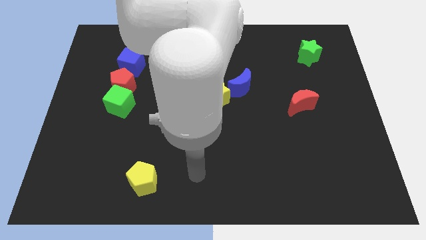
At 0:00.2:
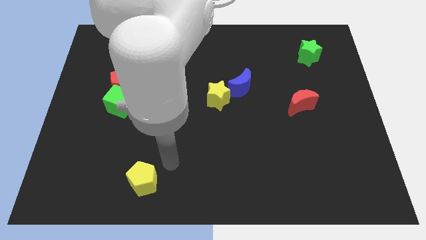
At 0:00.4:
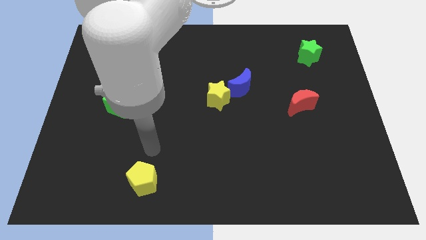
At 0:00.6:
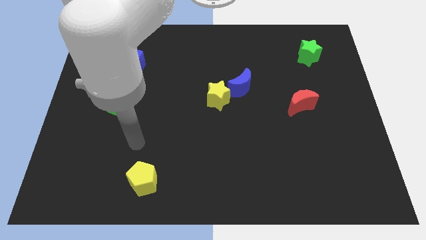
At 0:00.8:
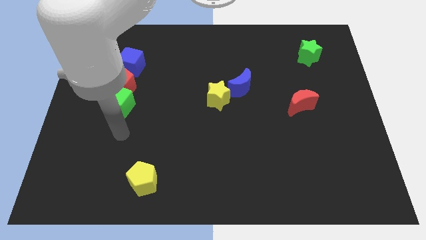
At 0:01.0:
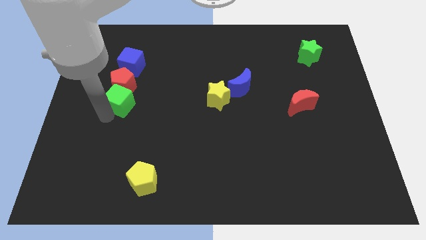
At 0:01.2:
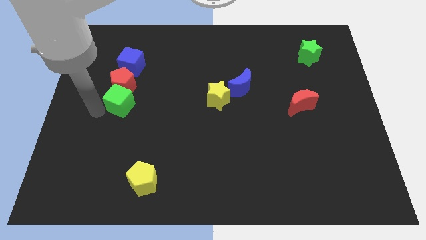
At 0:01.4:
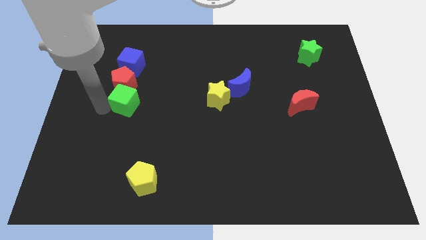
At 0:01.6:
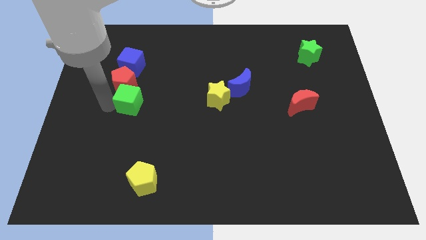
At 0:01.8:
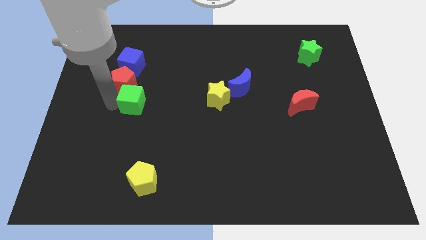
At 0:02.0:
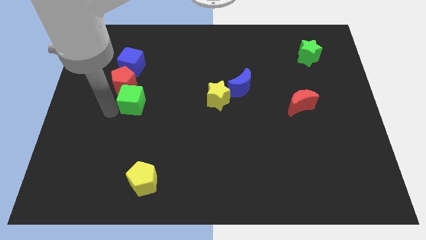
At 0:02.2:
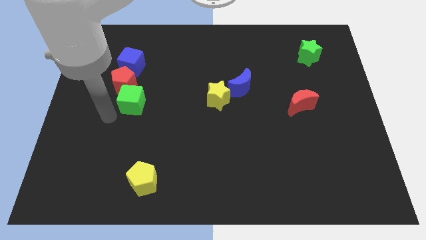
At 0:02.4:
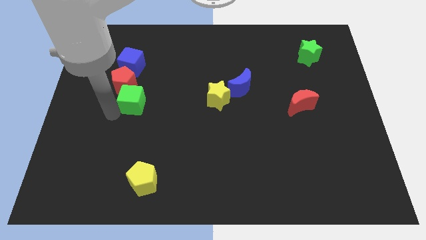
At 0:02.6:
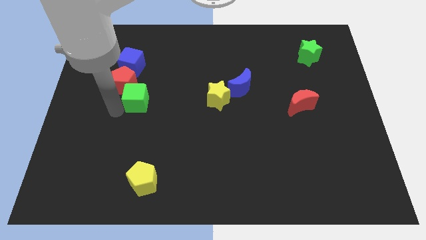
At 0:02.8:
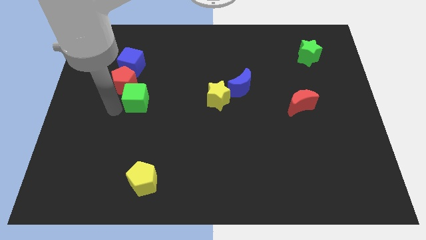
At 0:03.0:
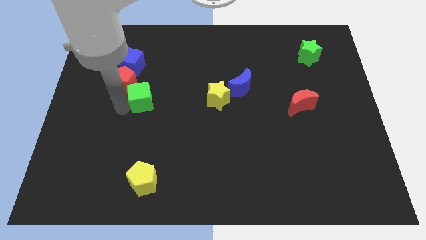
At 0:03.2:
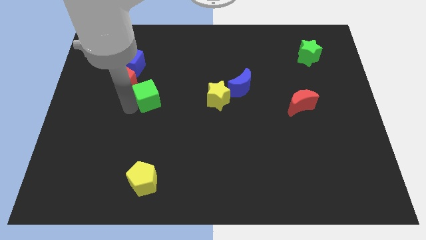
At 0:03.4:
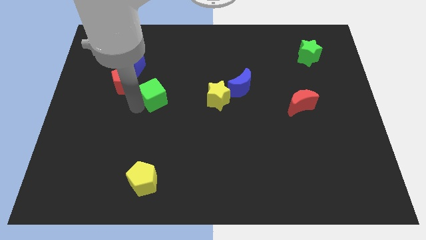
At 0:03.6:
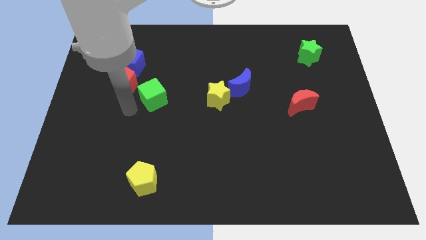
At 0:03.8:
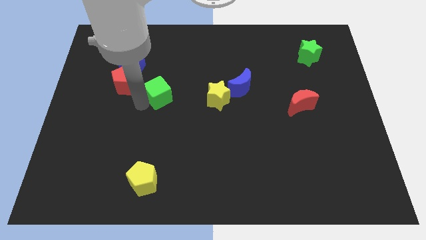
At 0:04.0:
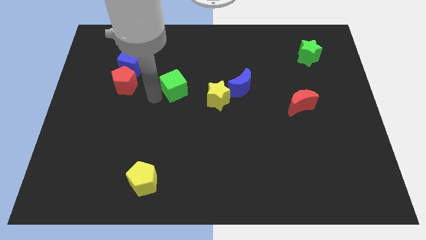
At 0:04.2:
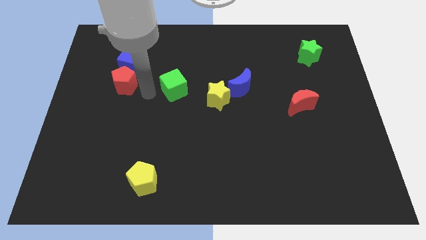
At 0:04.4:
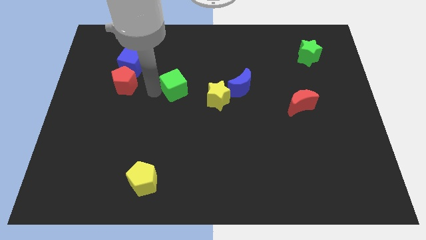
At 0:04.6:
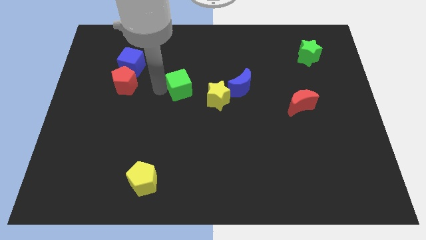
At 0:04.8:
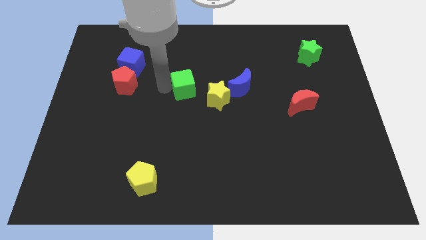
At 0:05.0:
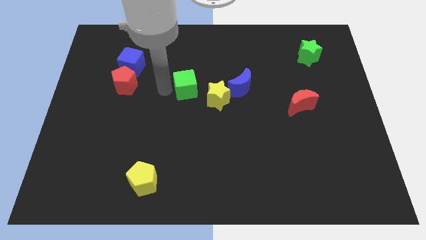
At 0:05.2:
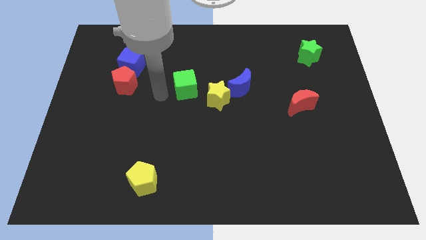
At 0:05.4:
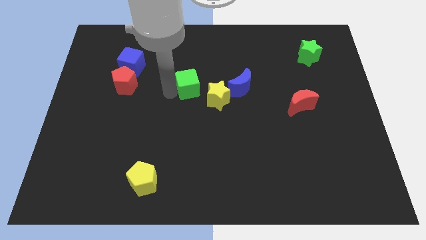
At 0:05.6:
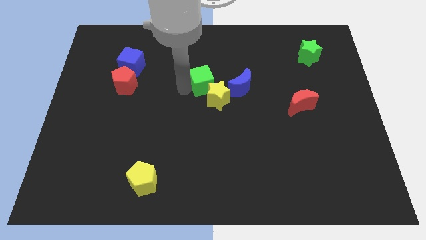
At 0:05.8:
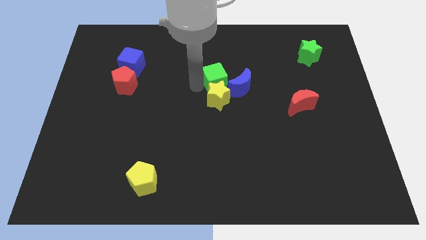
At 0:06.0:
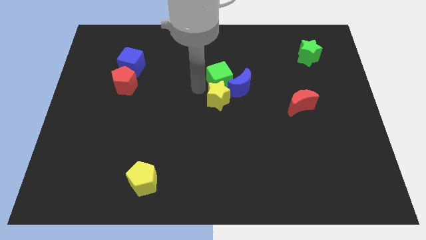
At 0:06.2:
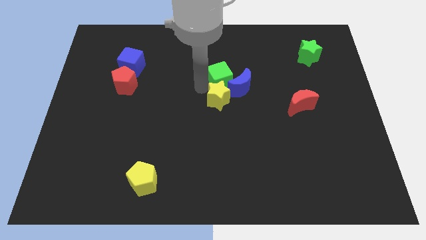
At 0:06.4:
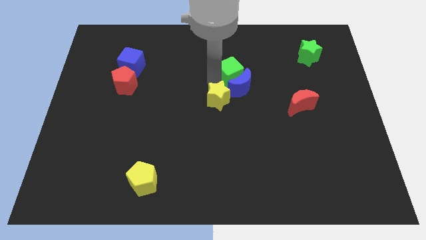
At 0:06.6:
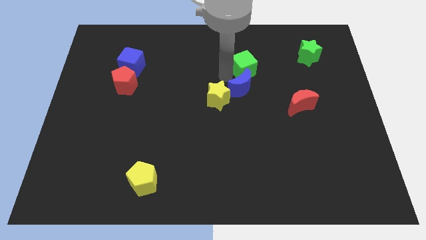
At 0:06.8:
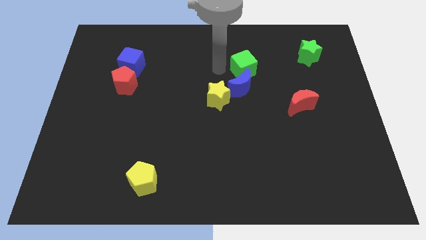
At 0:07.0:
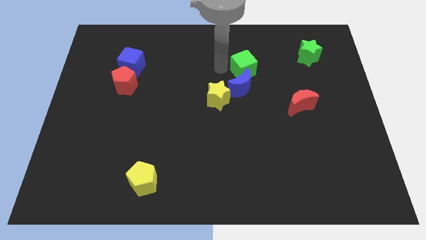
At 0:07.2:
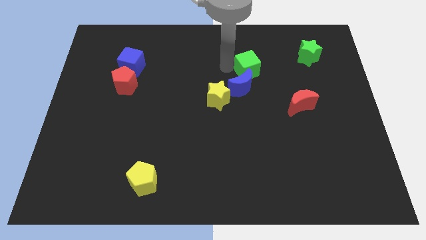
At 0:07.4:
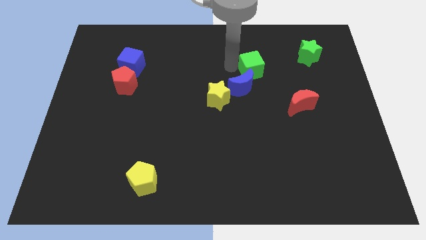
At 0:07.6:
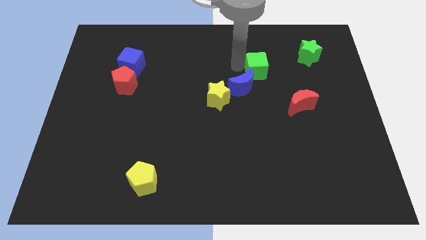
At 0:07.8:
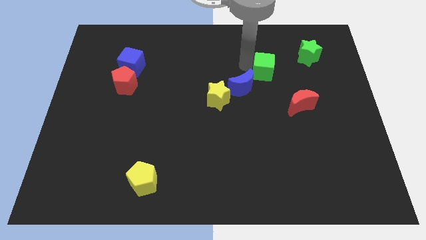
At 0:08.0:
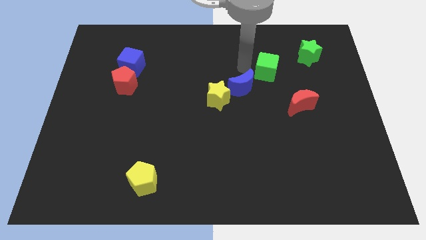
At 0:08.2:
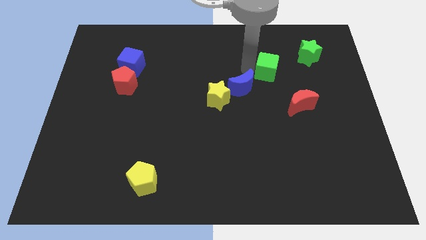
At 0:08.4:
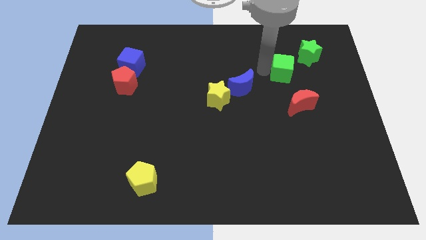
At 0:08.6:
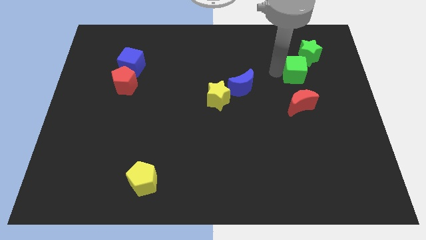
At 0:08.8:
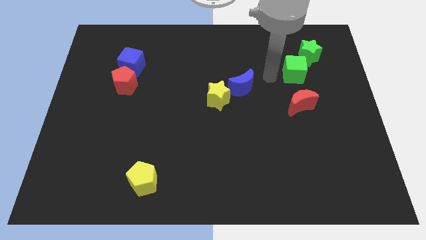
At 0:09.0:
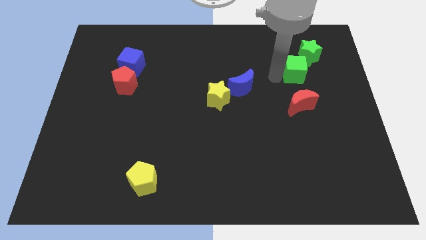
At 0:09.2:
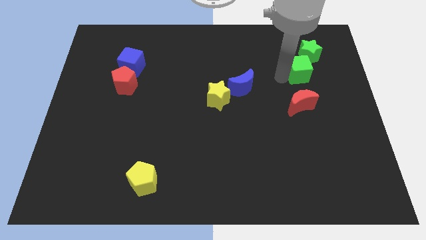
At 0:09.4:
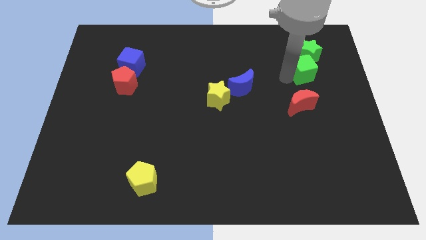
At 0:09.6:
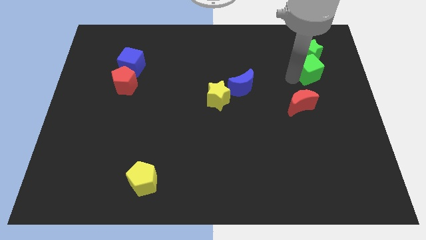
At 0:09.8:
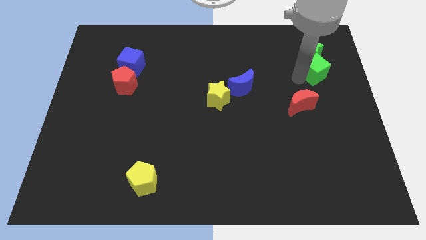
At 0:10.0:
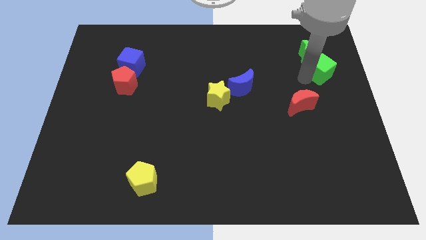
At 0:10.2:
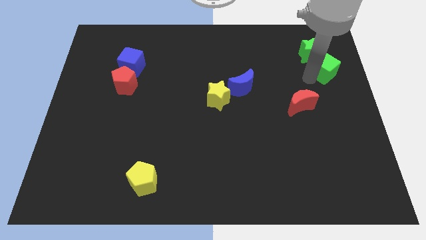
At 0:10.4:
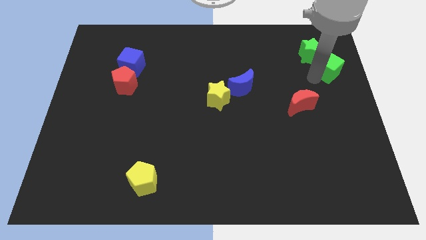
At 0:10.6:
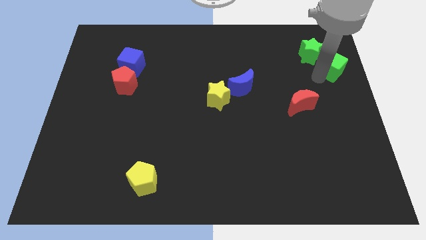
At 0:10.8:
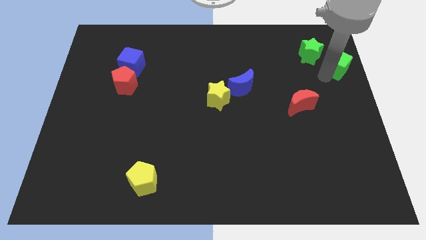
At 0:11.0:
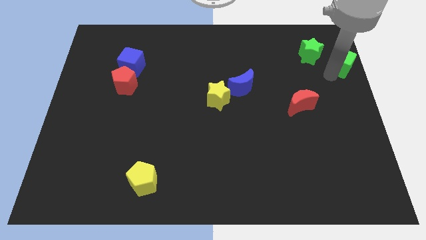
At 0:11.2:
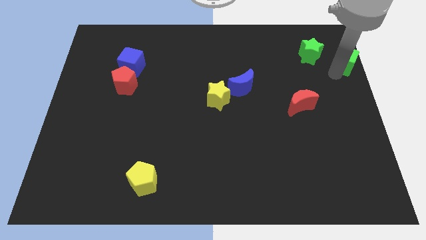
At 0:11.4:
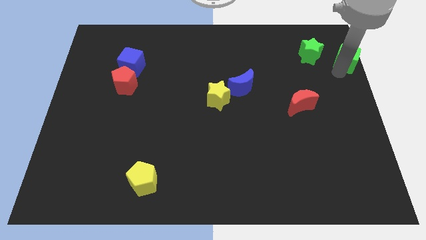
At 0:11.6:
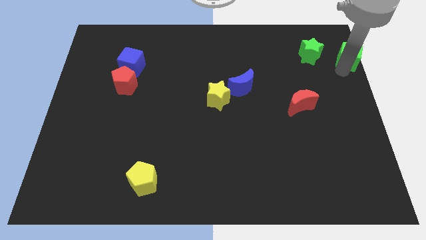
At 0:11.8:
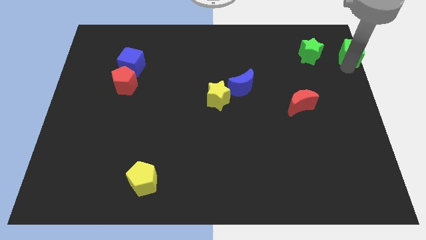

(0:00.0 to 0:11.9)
move the green cube to the upper right corner

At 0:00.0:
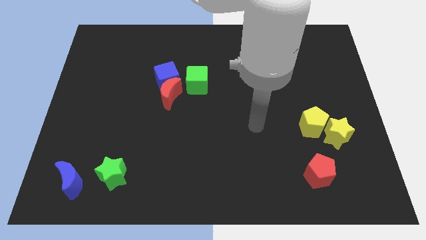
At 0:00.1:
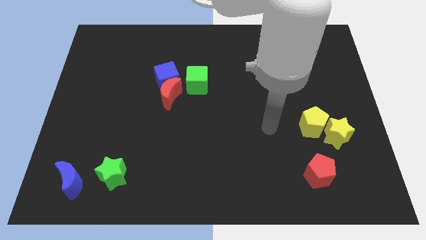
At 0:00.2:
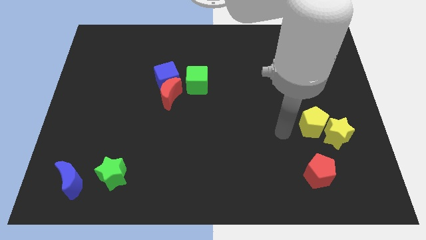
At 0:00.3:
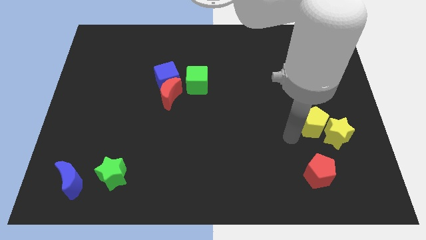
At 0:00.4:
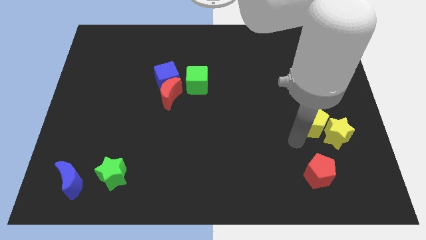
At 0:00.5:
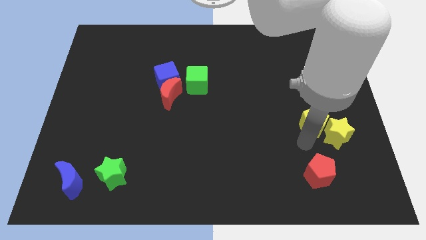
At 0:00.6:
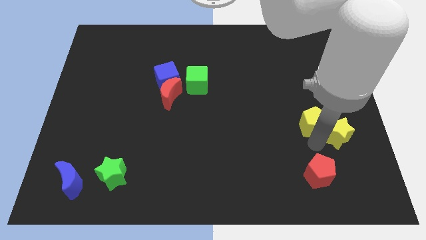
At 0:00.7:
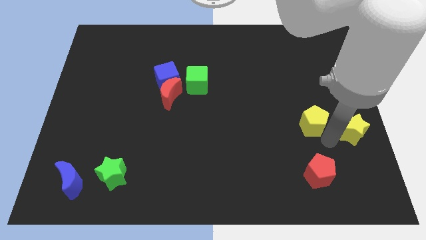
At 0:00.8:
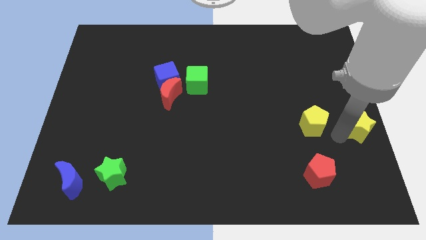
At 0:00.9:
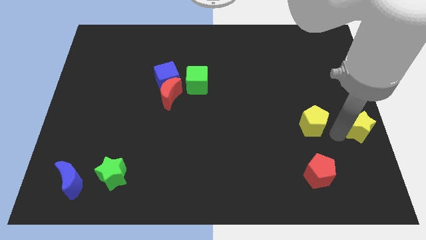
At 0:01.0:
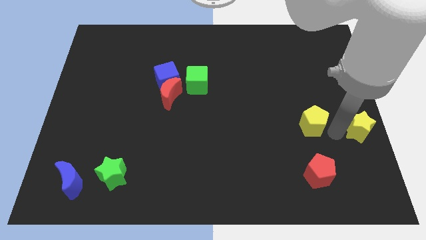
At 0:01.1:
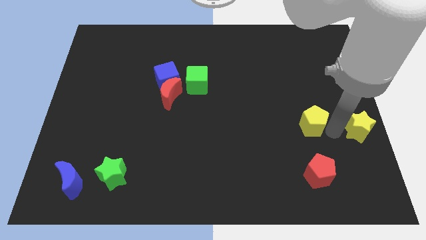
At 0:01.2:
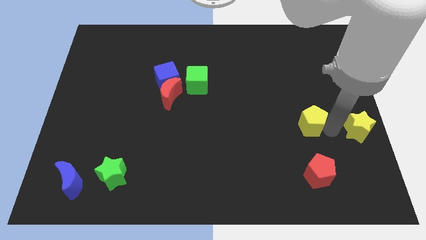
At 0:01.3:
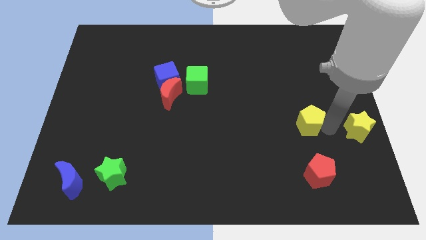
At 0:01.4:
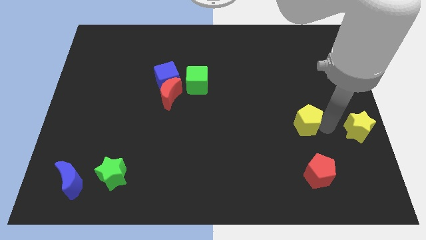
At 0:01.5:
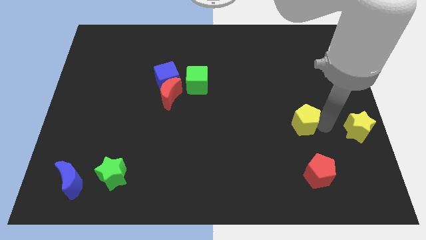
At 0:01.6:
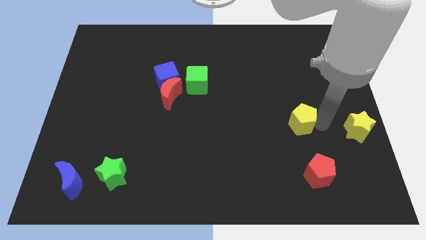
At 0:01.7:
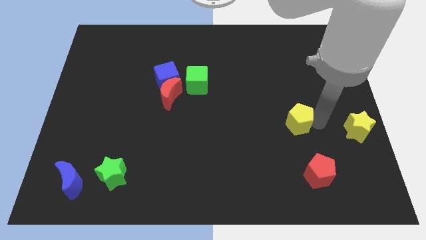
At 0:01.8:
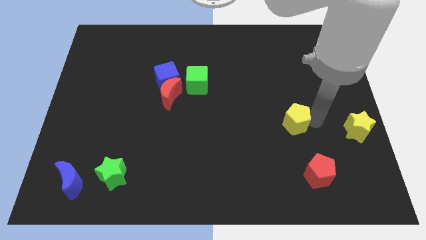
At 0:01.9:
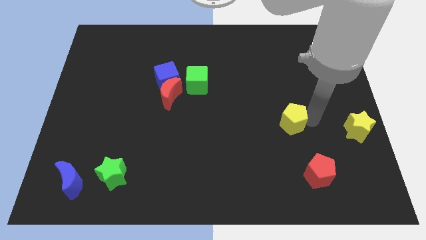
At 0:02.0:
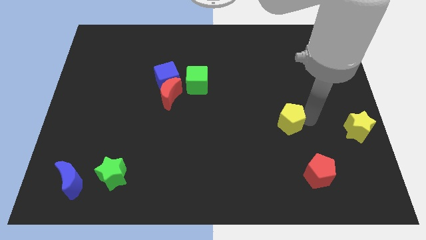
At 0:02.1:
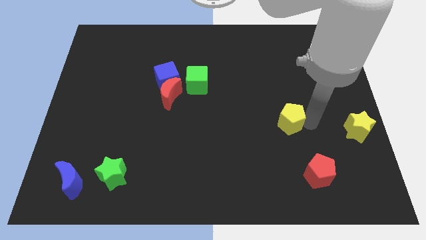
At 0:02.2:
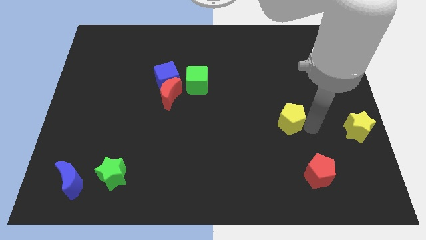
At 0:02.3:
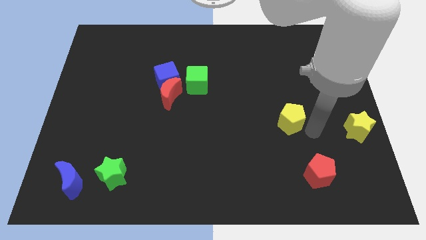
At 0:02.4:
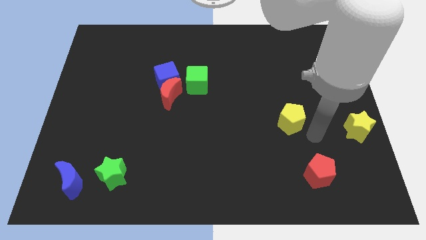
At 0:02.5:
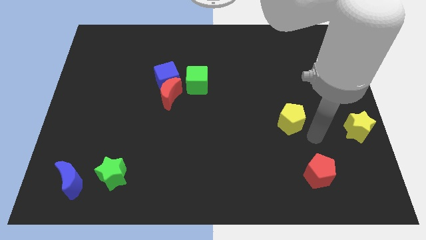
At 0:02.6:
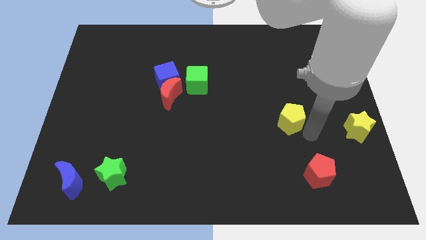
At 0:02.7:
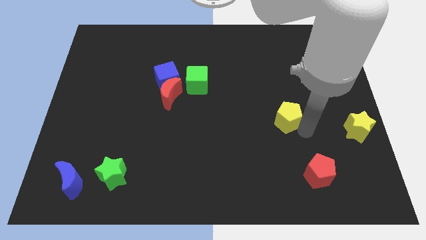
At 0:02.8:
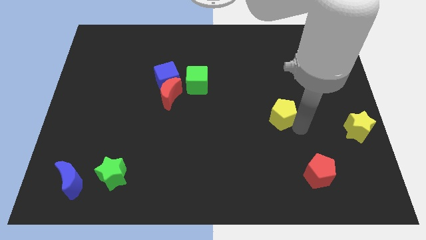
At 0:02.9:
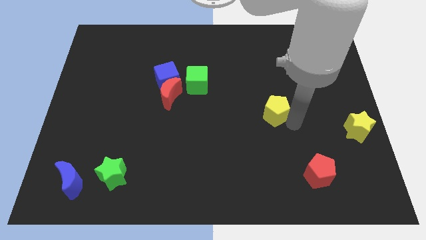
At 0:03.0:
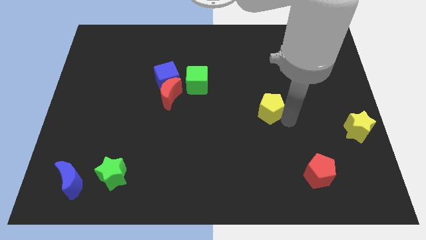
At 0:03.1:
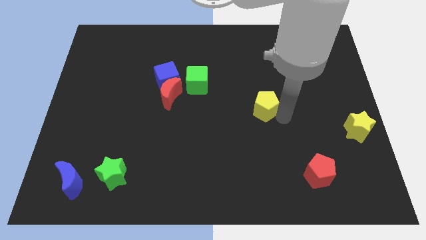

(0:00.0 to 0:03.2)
put the yellow pentagon to the middle of the board
